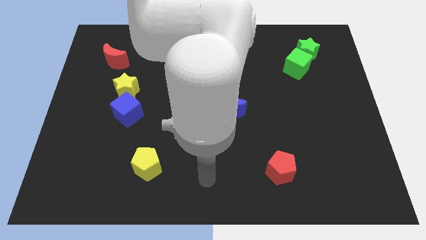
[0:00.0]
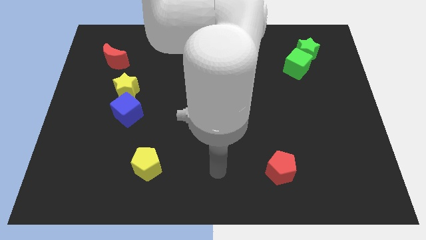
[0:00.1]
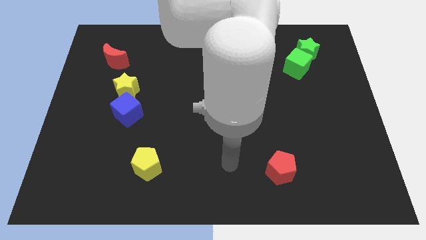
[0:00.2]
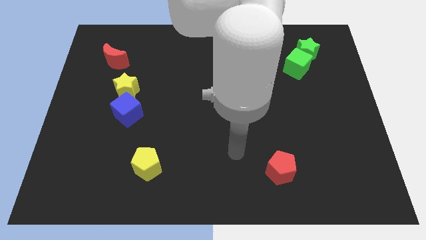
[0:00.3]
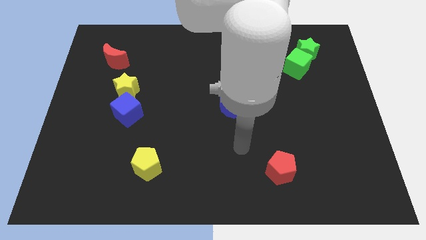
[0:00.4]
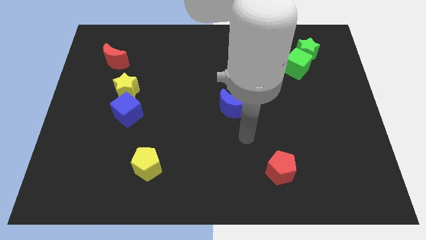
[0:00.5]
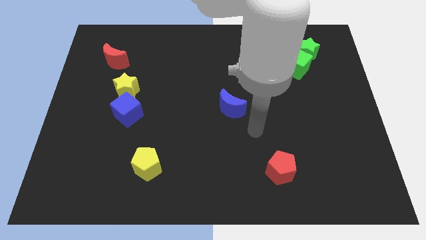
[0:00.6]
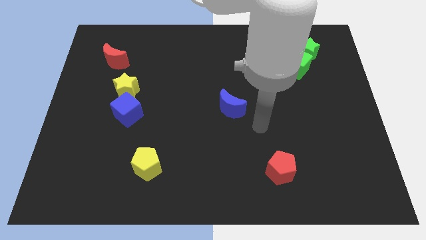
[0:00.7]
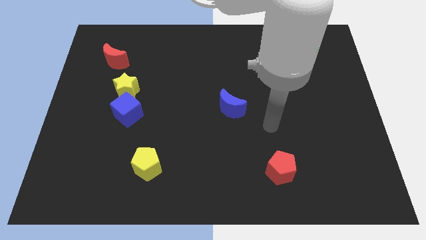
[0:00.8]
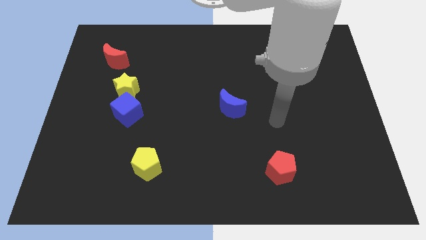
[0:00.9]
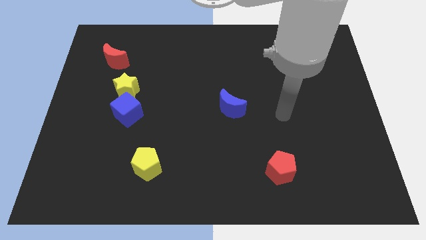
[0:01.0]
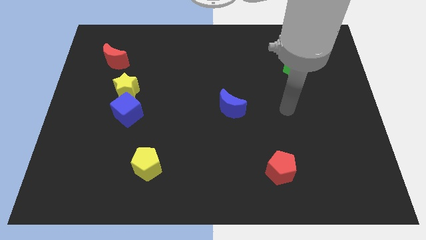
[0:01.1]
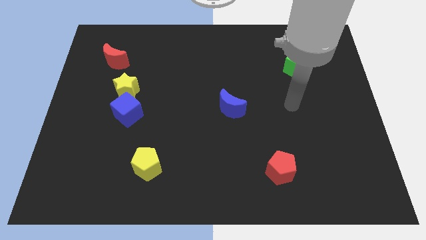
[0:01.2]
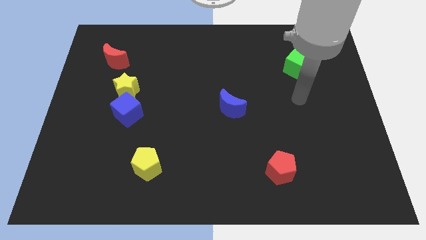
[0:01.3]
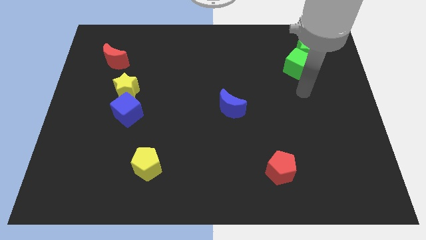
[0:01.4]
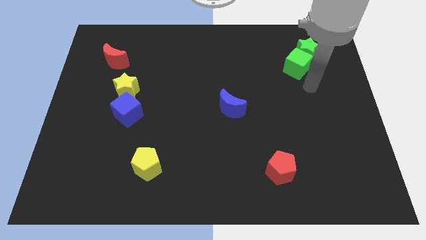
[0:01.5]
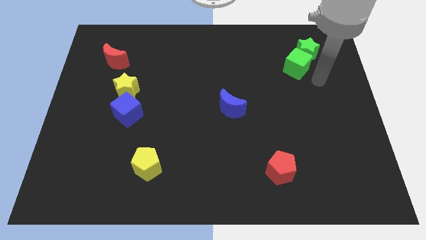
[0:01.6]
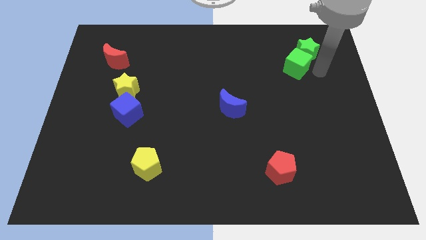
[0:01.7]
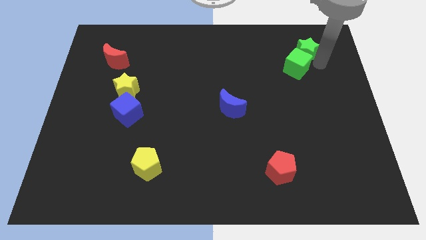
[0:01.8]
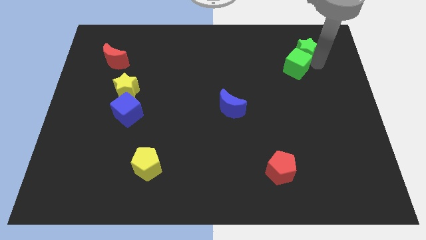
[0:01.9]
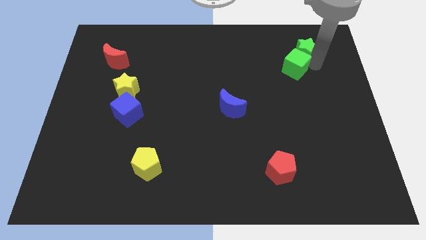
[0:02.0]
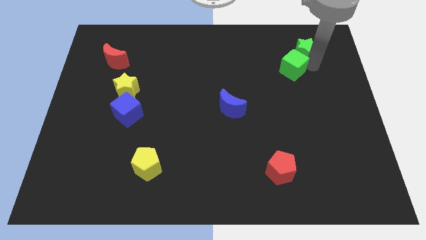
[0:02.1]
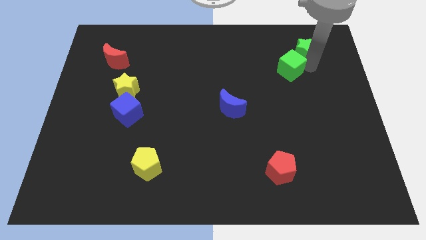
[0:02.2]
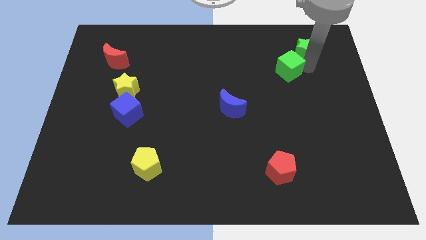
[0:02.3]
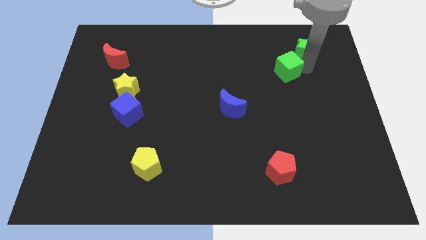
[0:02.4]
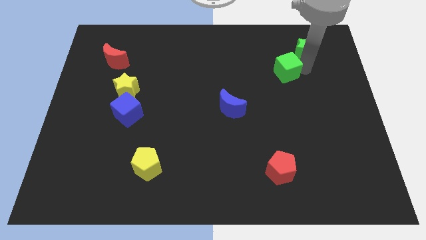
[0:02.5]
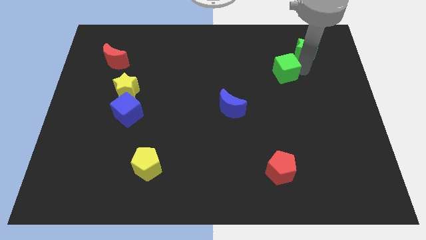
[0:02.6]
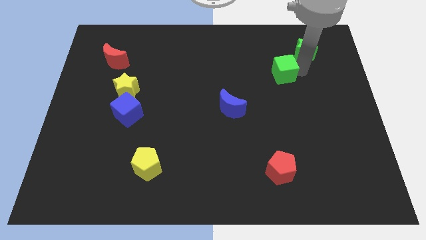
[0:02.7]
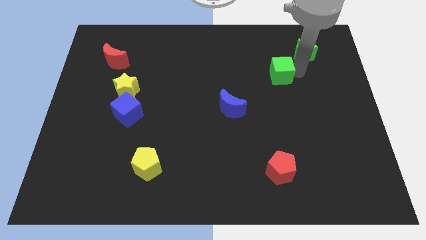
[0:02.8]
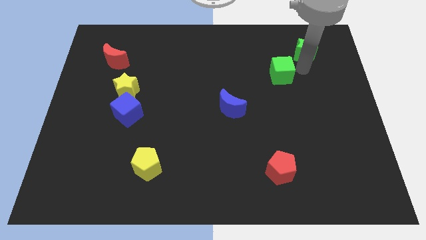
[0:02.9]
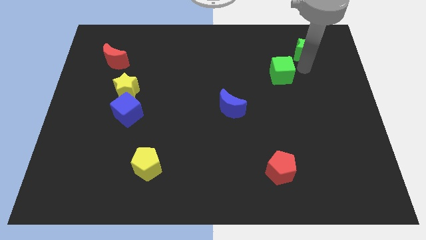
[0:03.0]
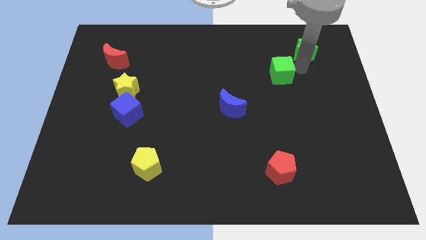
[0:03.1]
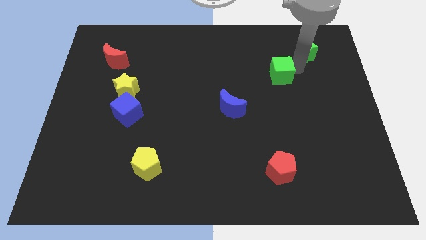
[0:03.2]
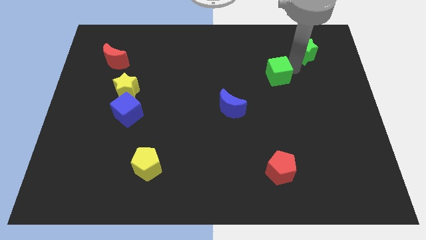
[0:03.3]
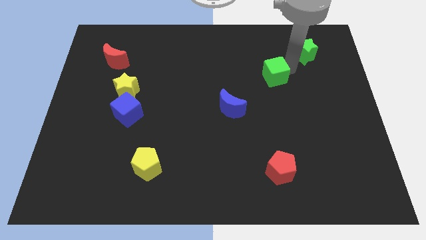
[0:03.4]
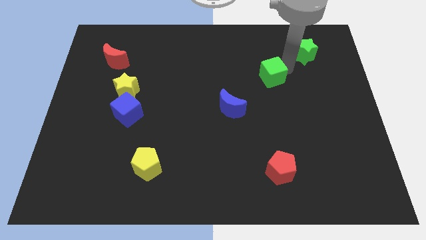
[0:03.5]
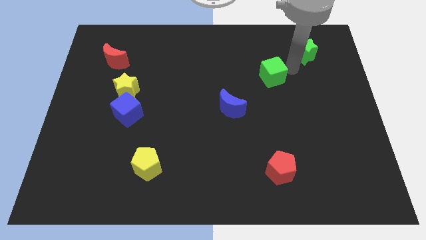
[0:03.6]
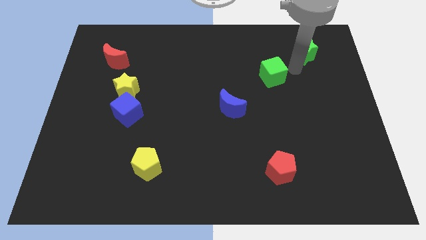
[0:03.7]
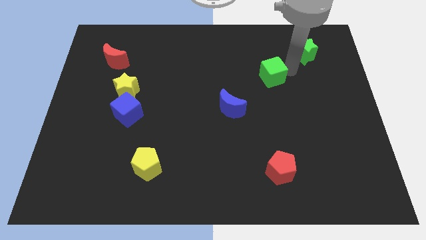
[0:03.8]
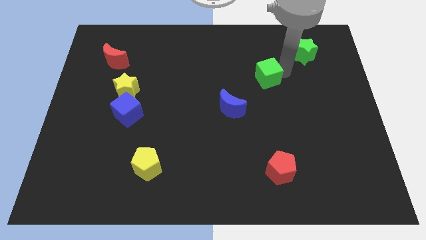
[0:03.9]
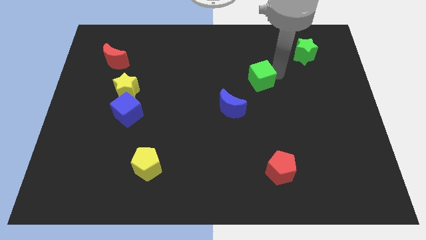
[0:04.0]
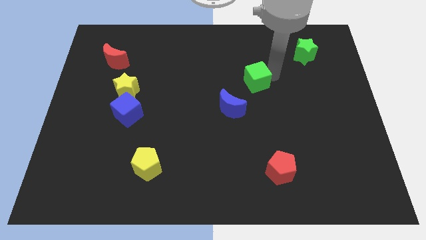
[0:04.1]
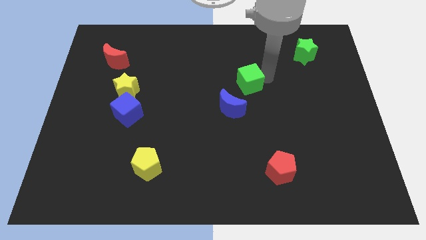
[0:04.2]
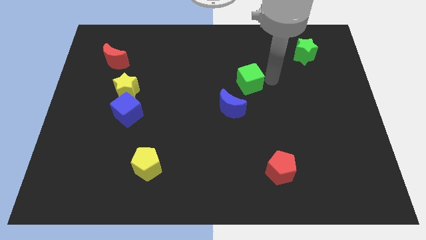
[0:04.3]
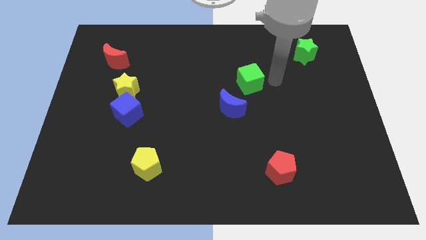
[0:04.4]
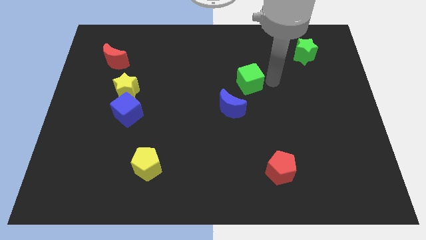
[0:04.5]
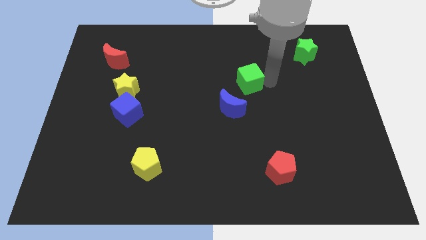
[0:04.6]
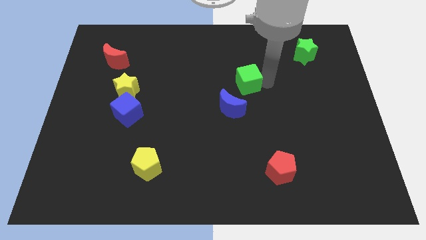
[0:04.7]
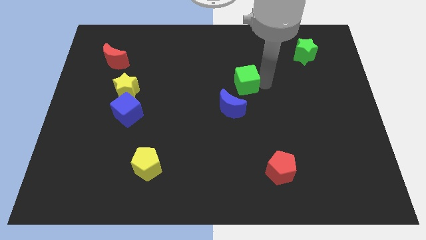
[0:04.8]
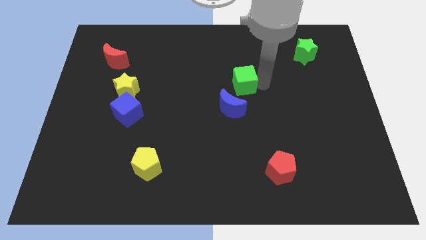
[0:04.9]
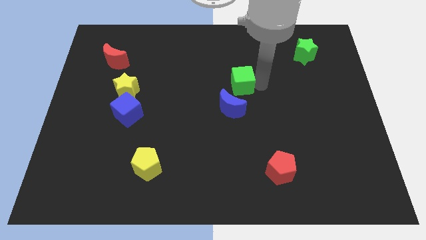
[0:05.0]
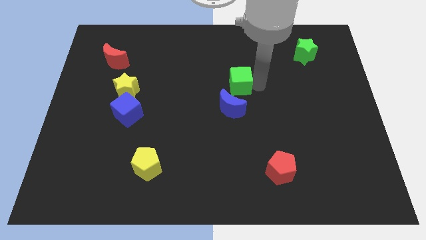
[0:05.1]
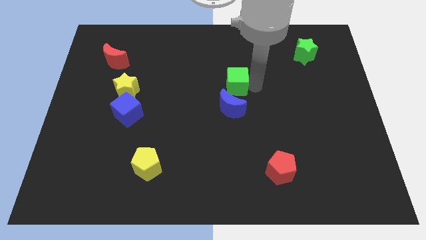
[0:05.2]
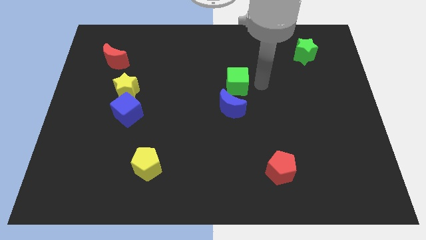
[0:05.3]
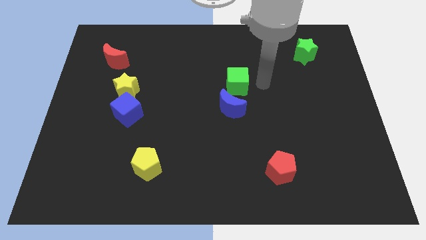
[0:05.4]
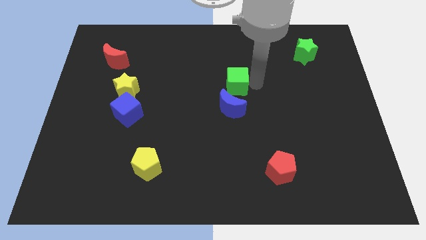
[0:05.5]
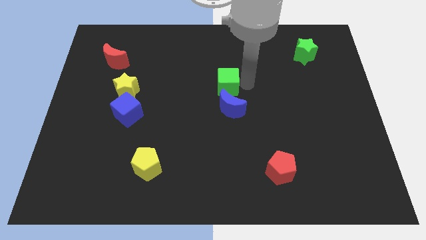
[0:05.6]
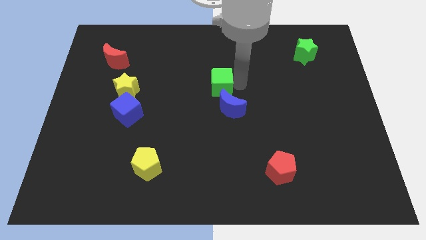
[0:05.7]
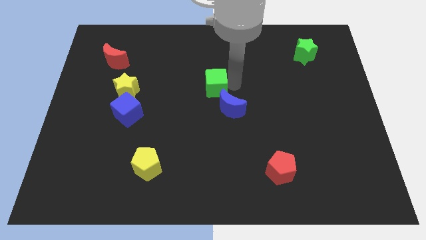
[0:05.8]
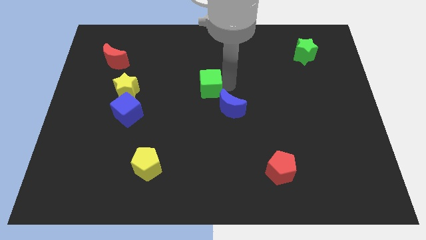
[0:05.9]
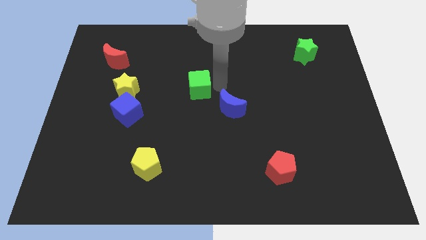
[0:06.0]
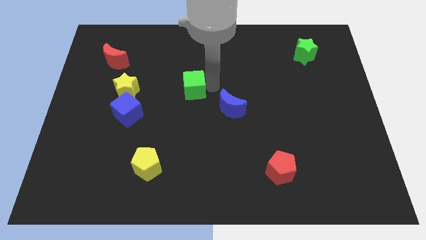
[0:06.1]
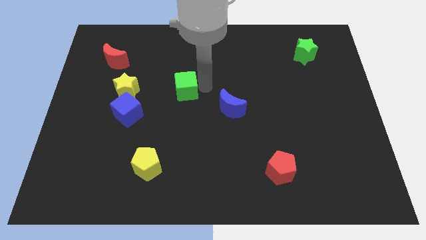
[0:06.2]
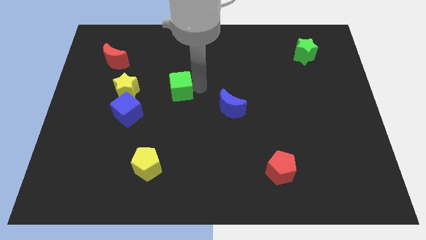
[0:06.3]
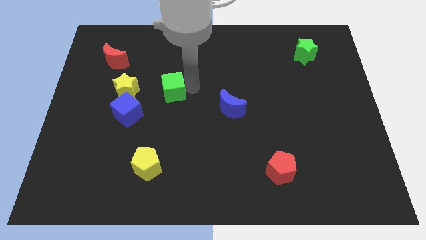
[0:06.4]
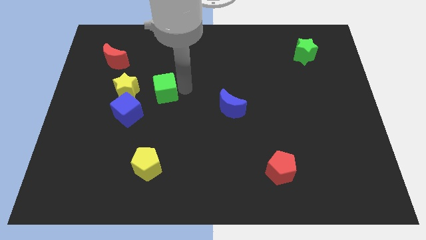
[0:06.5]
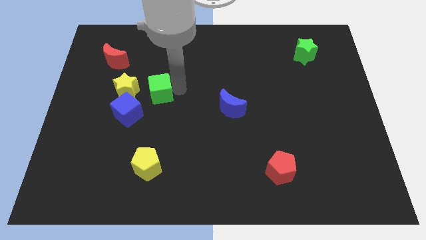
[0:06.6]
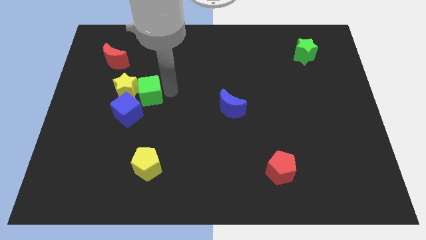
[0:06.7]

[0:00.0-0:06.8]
slide the green cube towards the yellow star
